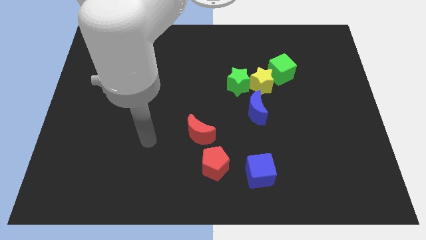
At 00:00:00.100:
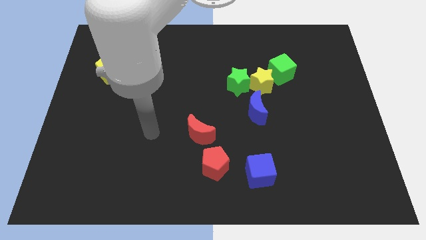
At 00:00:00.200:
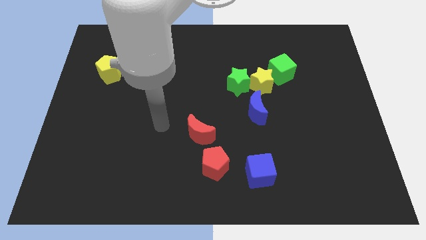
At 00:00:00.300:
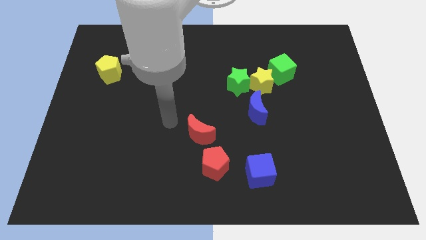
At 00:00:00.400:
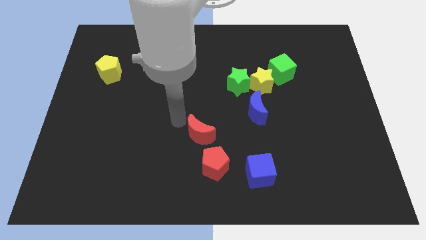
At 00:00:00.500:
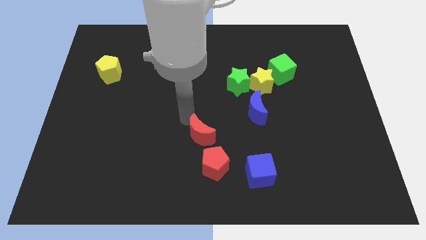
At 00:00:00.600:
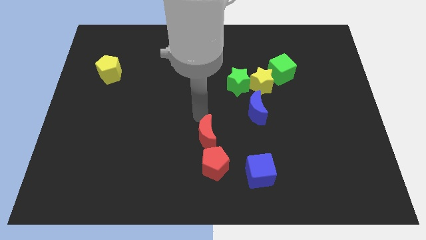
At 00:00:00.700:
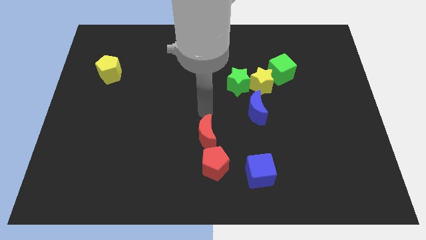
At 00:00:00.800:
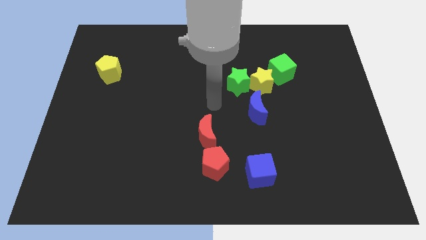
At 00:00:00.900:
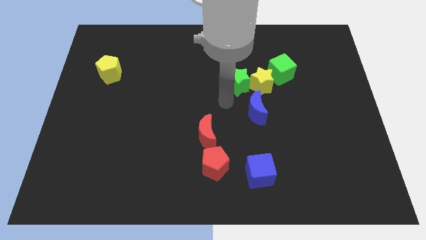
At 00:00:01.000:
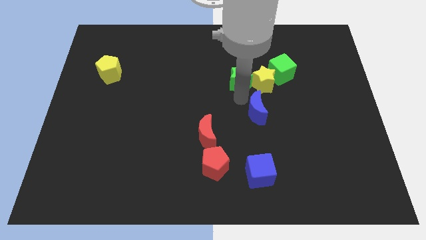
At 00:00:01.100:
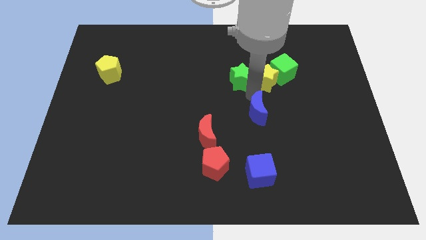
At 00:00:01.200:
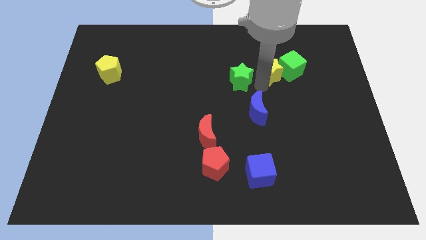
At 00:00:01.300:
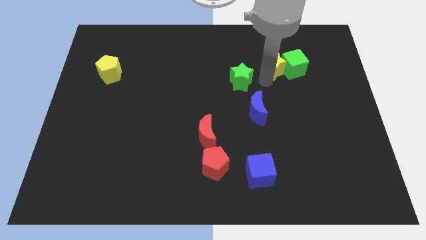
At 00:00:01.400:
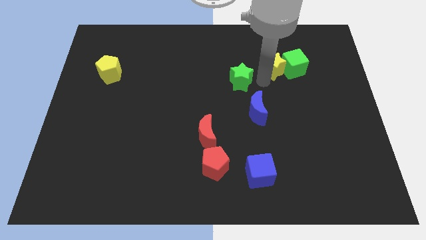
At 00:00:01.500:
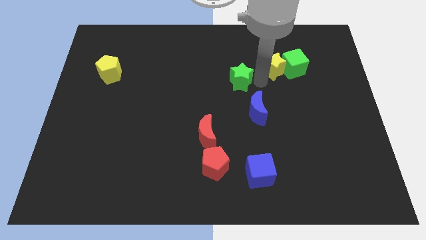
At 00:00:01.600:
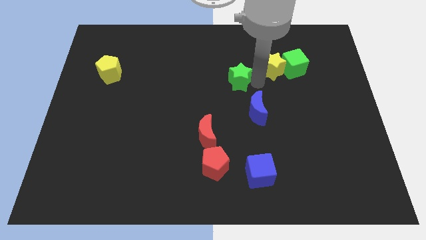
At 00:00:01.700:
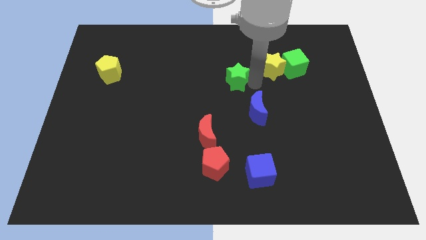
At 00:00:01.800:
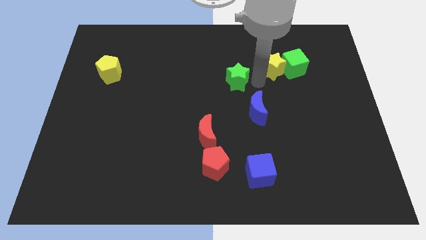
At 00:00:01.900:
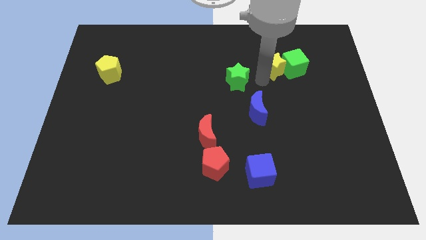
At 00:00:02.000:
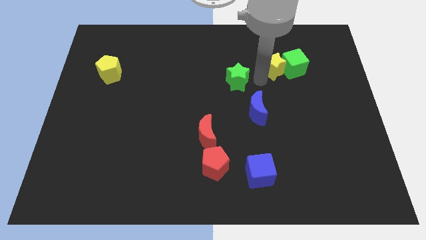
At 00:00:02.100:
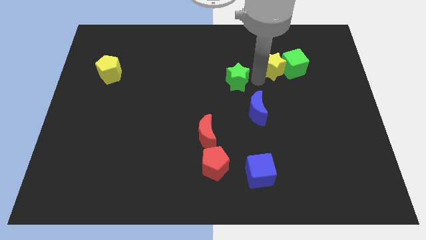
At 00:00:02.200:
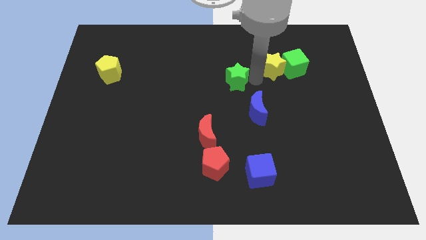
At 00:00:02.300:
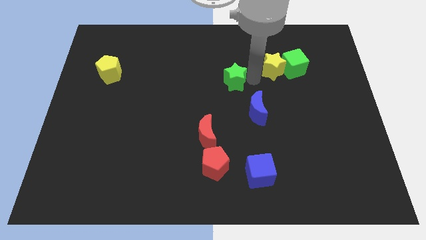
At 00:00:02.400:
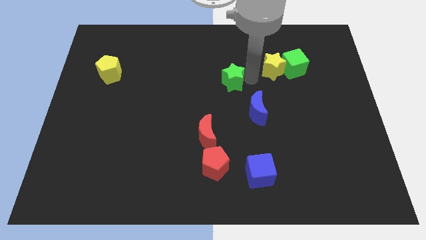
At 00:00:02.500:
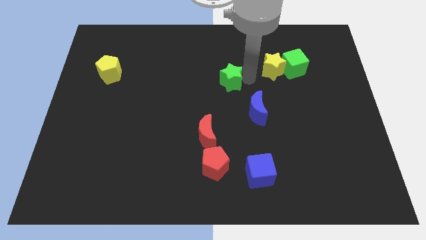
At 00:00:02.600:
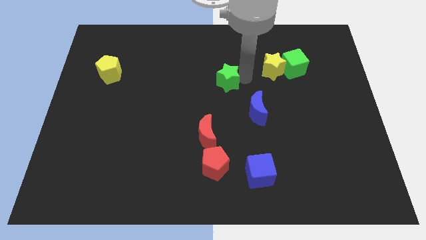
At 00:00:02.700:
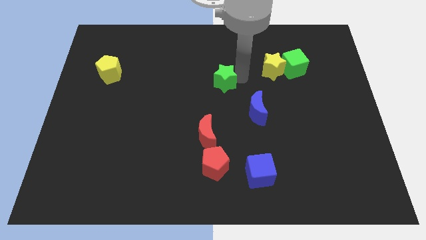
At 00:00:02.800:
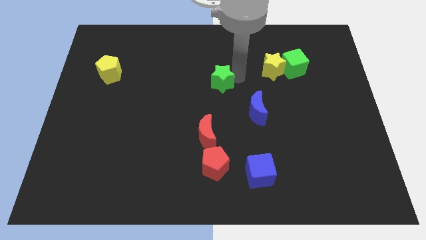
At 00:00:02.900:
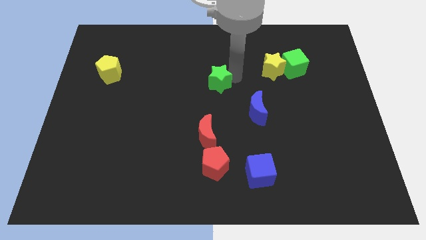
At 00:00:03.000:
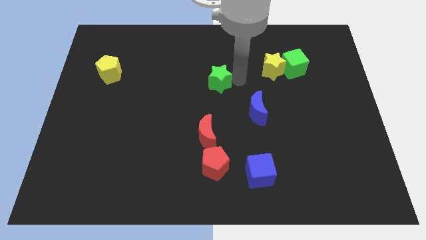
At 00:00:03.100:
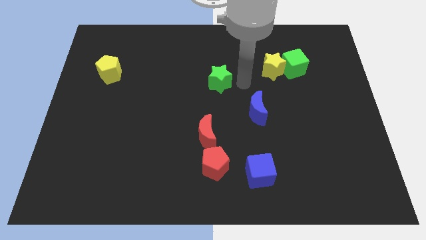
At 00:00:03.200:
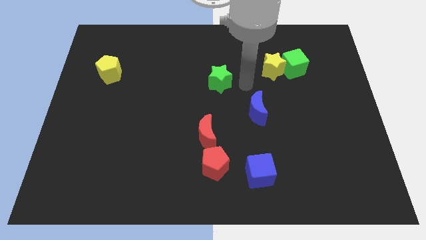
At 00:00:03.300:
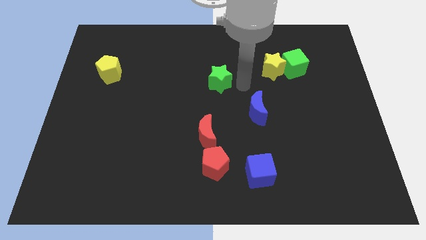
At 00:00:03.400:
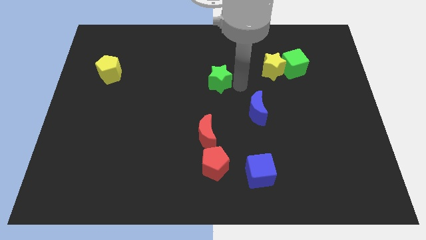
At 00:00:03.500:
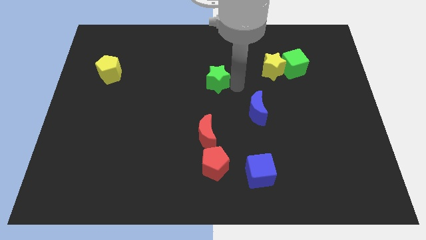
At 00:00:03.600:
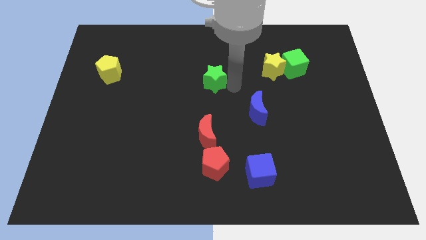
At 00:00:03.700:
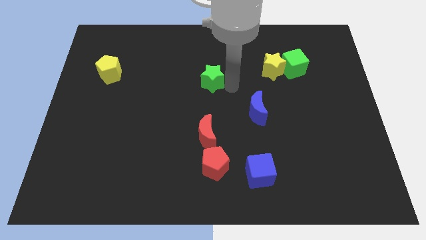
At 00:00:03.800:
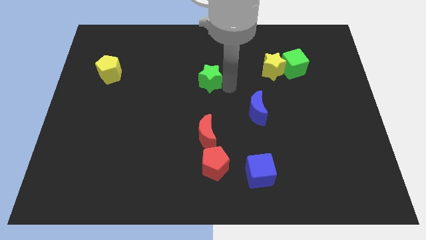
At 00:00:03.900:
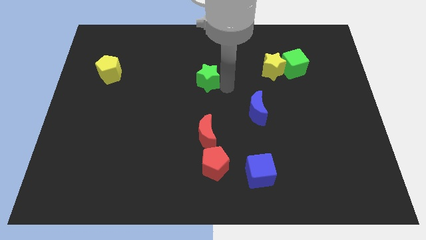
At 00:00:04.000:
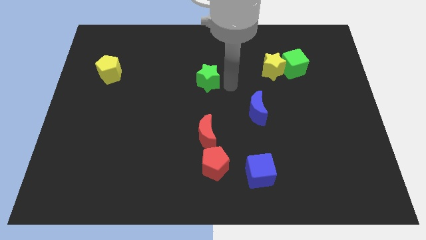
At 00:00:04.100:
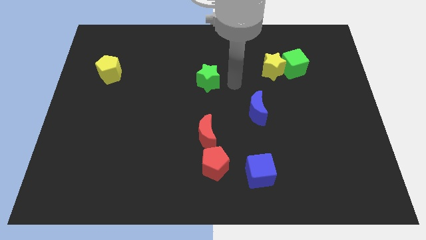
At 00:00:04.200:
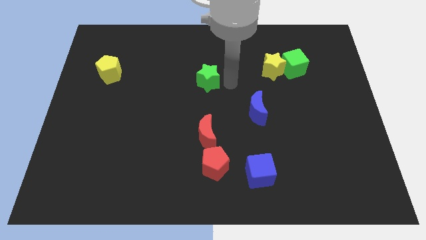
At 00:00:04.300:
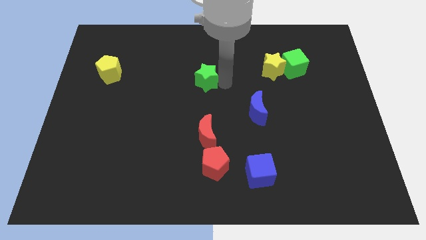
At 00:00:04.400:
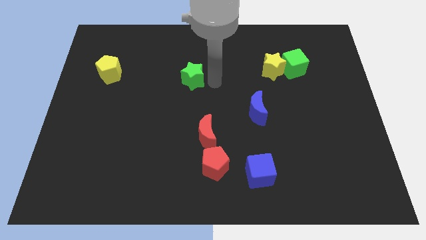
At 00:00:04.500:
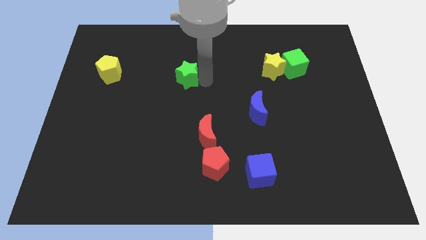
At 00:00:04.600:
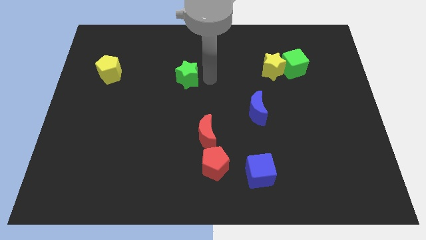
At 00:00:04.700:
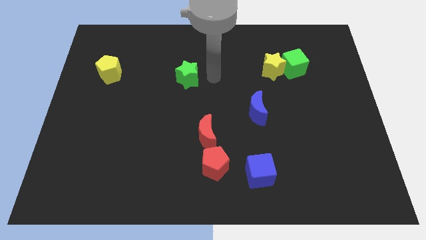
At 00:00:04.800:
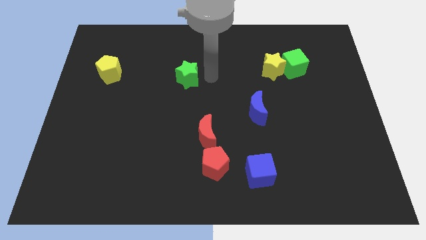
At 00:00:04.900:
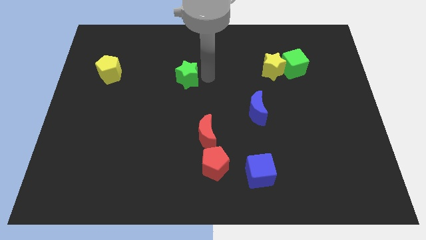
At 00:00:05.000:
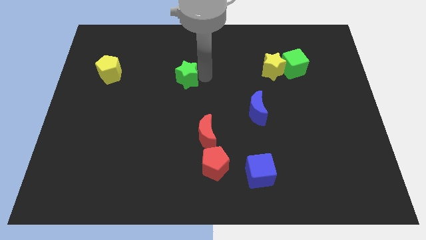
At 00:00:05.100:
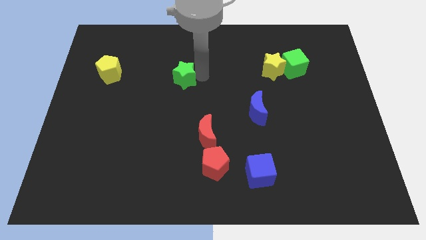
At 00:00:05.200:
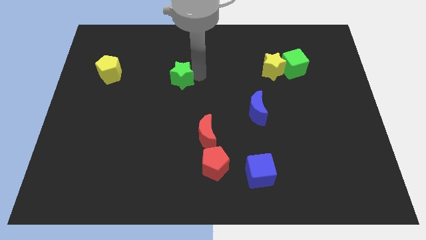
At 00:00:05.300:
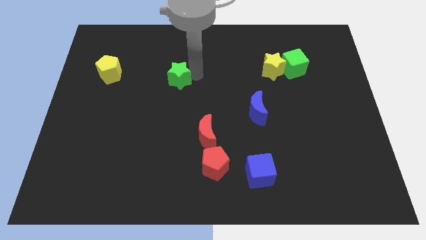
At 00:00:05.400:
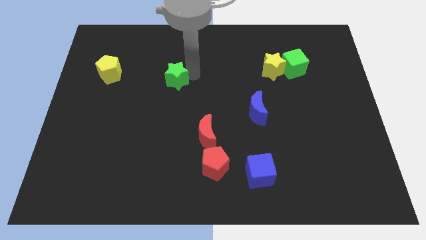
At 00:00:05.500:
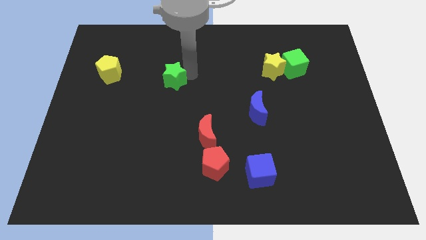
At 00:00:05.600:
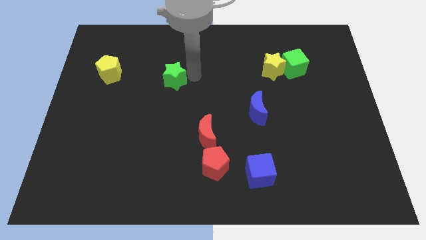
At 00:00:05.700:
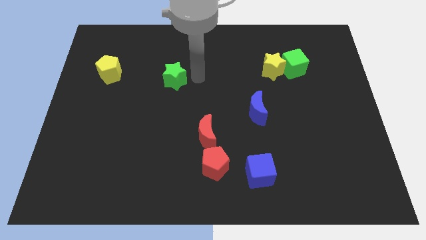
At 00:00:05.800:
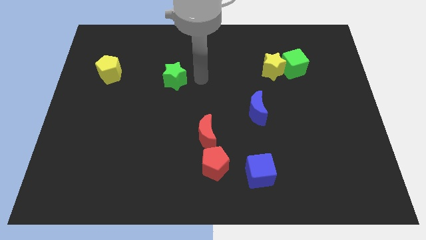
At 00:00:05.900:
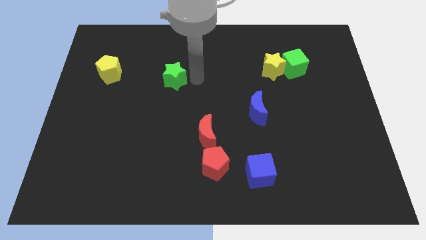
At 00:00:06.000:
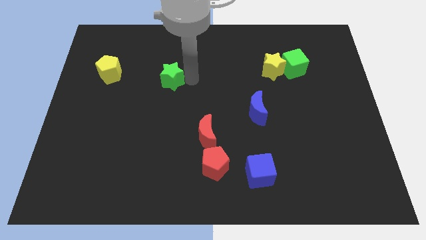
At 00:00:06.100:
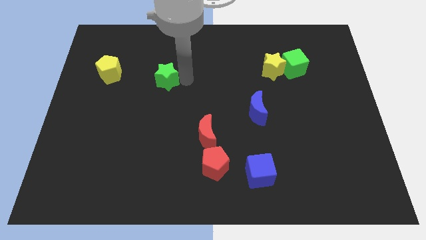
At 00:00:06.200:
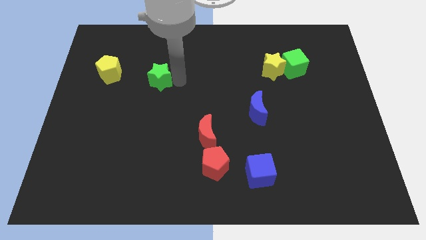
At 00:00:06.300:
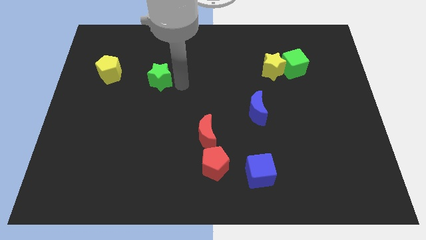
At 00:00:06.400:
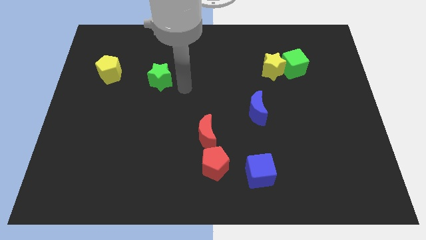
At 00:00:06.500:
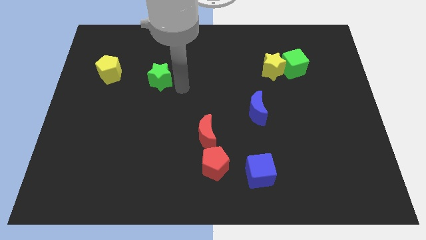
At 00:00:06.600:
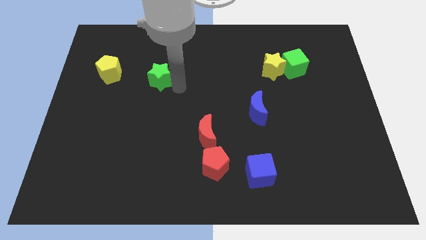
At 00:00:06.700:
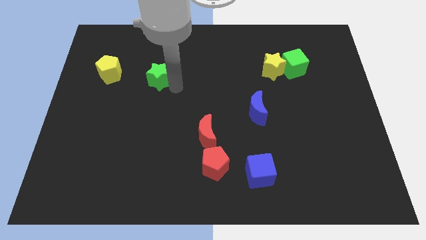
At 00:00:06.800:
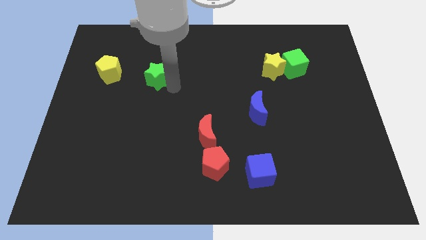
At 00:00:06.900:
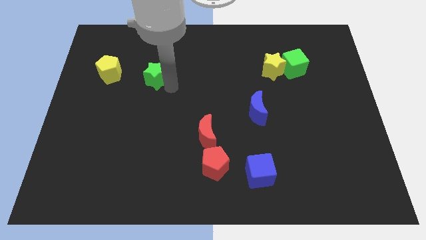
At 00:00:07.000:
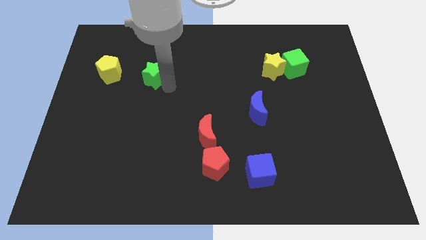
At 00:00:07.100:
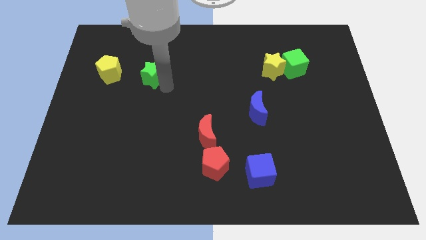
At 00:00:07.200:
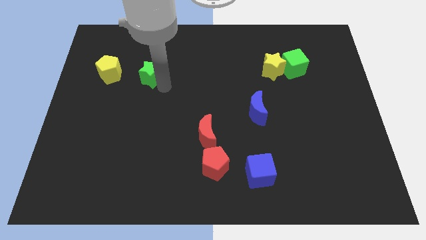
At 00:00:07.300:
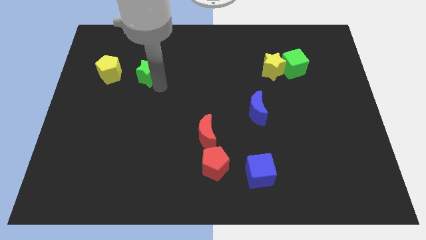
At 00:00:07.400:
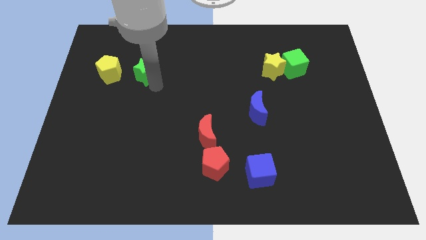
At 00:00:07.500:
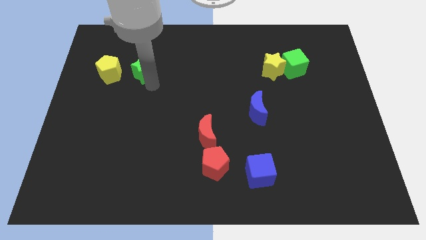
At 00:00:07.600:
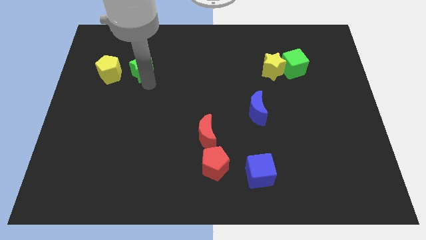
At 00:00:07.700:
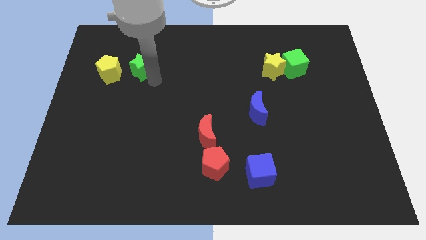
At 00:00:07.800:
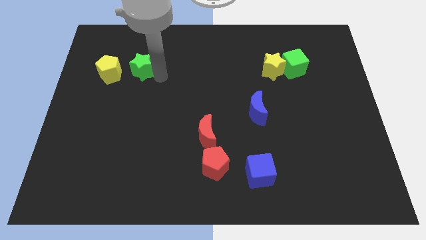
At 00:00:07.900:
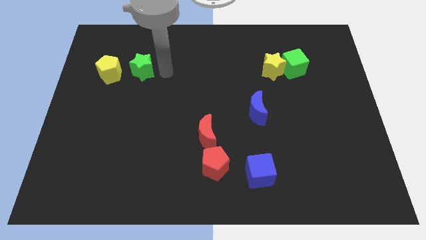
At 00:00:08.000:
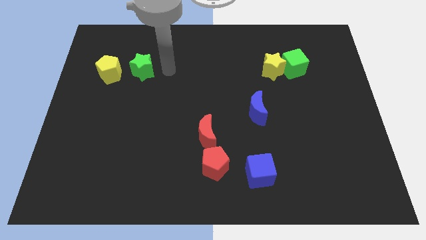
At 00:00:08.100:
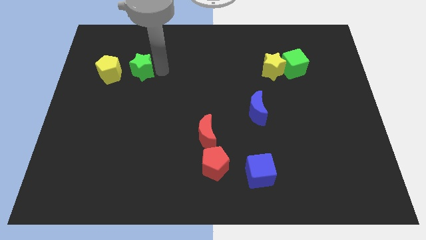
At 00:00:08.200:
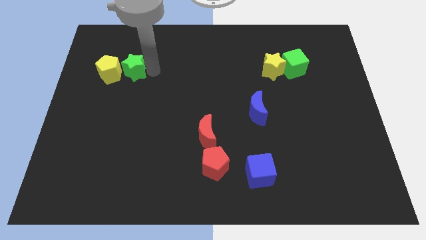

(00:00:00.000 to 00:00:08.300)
push the green star next to the yellow pentagon
